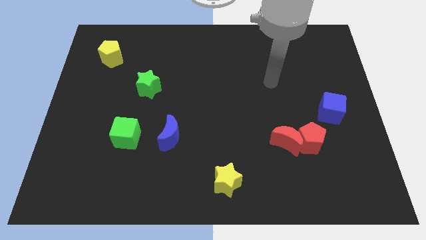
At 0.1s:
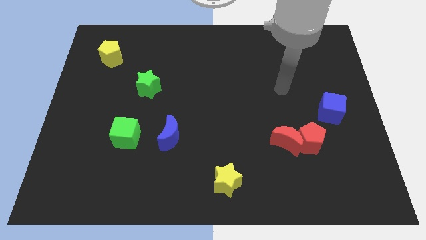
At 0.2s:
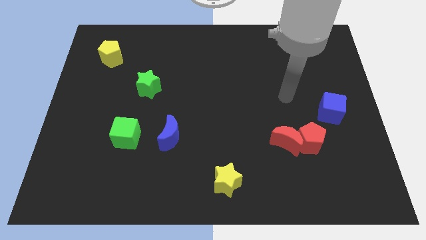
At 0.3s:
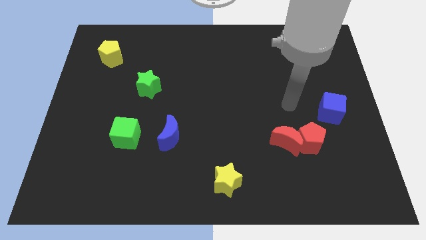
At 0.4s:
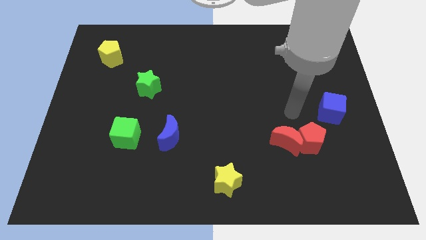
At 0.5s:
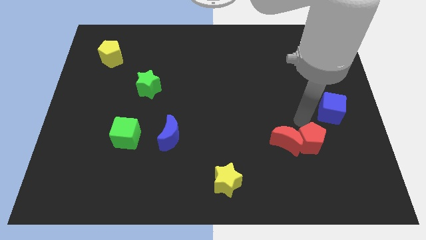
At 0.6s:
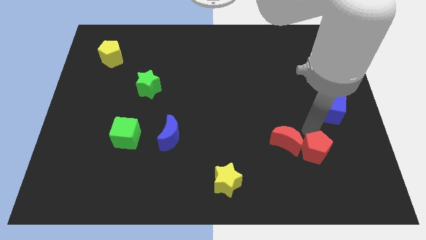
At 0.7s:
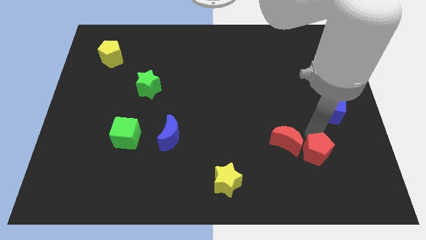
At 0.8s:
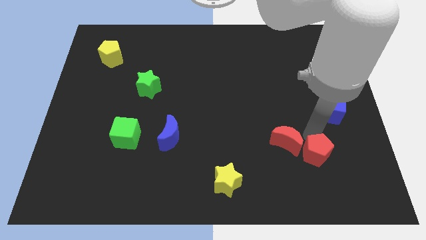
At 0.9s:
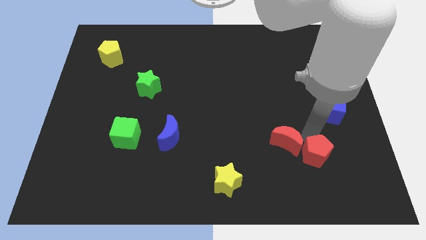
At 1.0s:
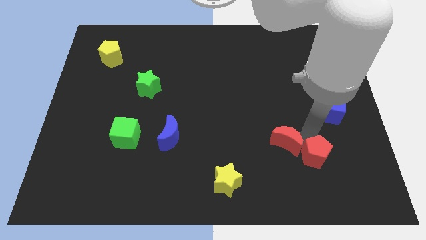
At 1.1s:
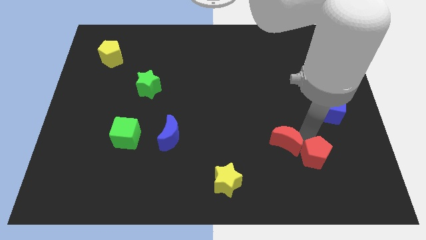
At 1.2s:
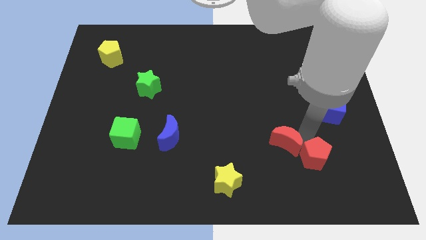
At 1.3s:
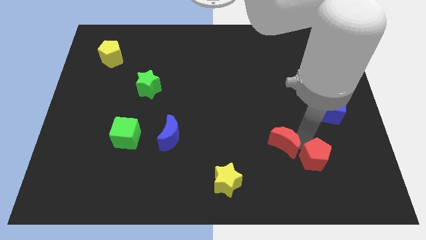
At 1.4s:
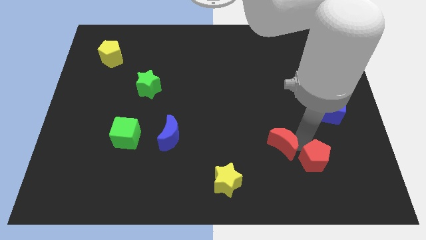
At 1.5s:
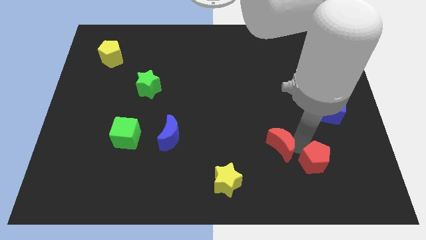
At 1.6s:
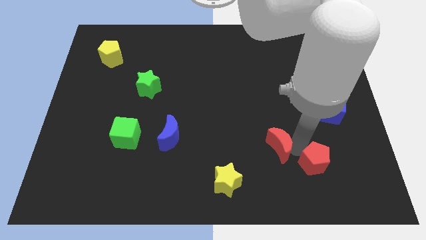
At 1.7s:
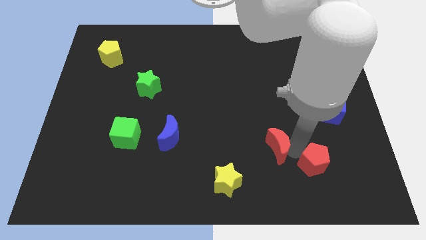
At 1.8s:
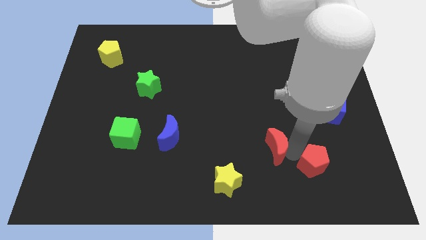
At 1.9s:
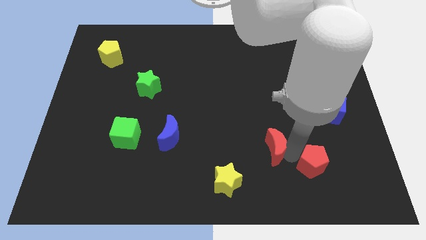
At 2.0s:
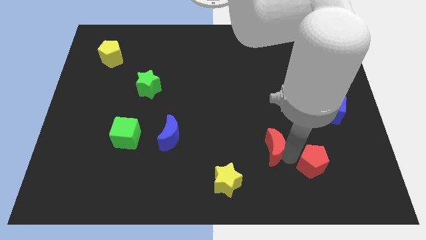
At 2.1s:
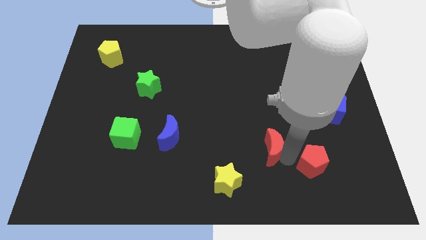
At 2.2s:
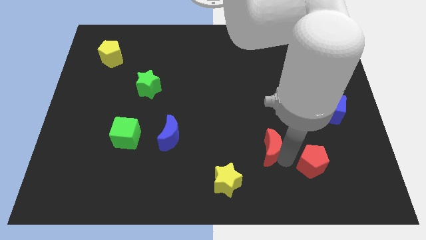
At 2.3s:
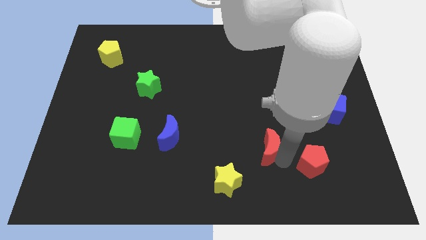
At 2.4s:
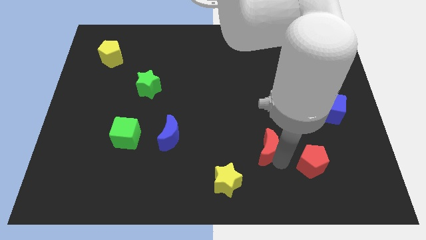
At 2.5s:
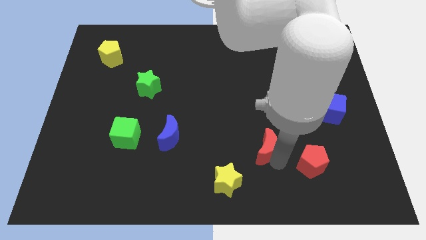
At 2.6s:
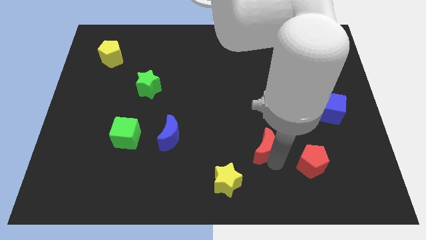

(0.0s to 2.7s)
pull the red moon apart from the red pentagon

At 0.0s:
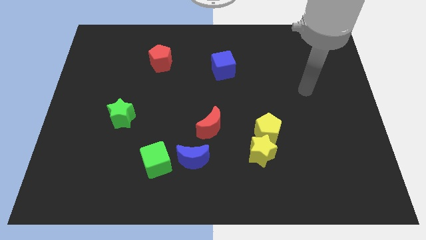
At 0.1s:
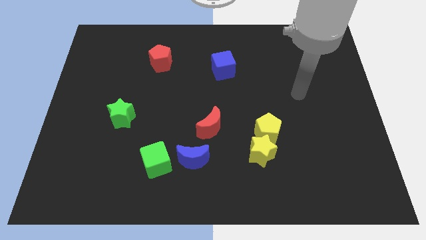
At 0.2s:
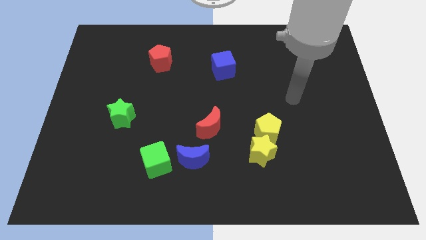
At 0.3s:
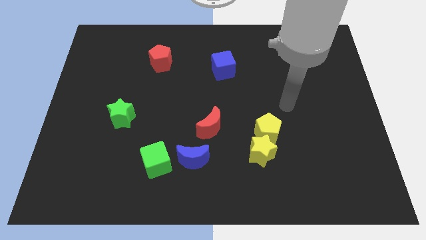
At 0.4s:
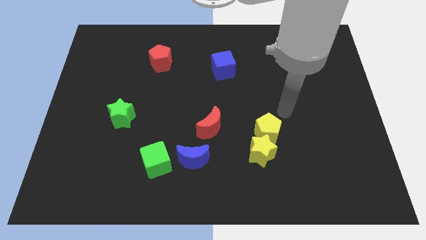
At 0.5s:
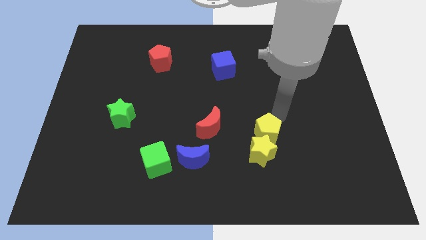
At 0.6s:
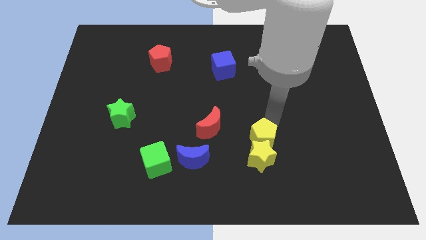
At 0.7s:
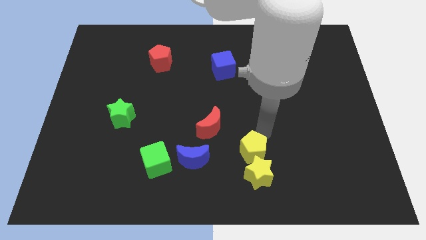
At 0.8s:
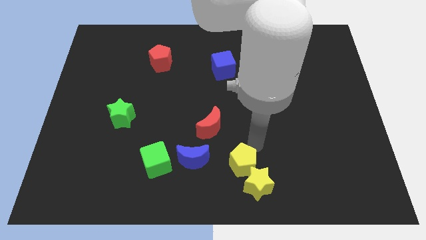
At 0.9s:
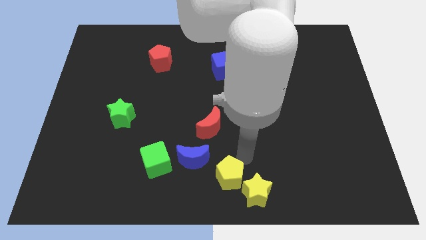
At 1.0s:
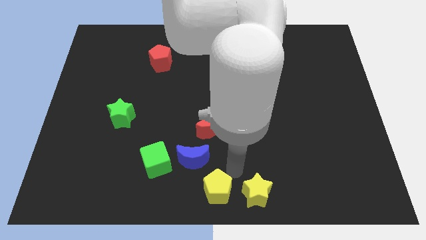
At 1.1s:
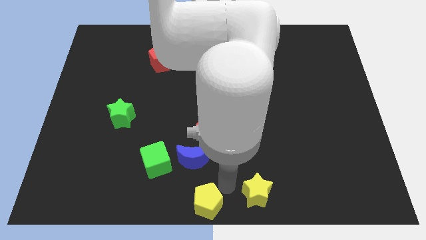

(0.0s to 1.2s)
move the yellow star away from the yellow pentagon

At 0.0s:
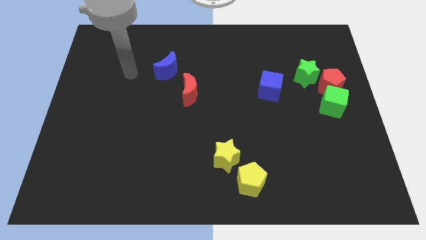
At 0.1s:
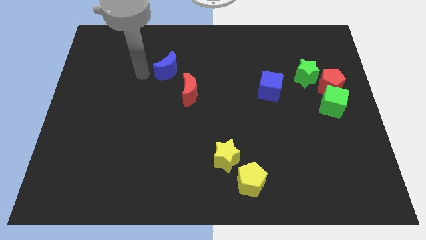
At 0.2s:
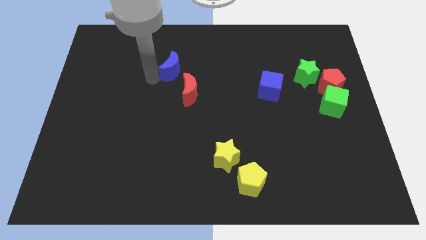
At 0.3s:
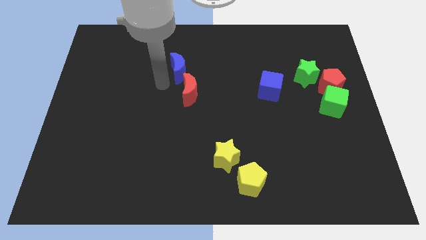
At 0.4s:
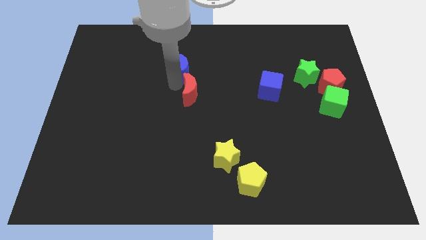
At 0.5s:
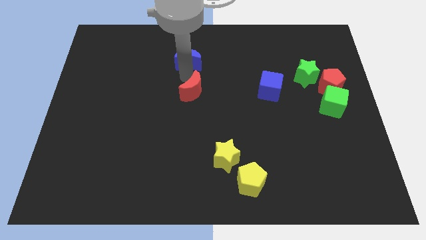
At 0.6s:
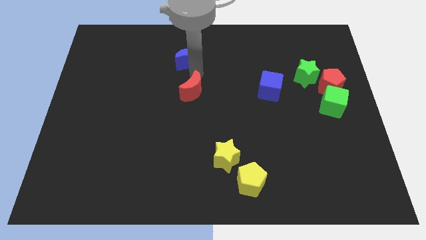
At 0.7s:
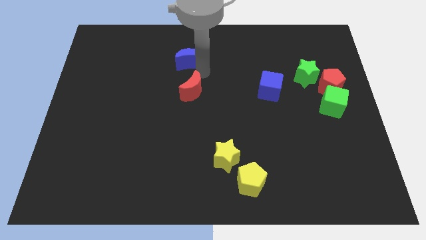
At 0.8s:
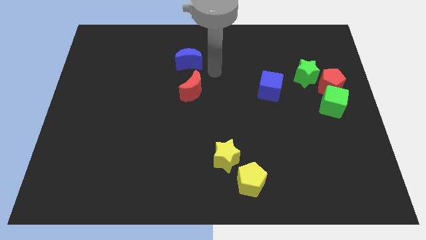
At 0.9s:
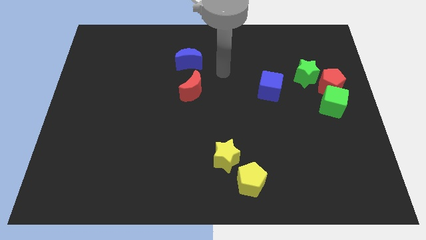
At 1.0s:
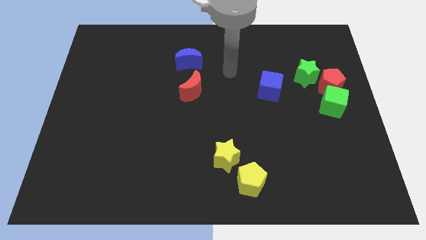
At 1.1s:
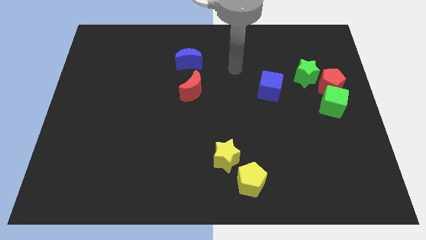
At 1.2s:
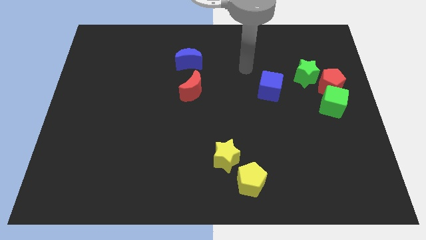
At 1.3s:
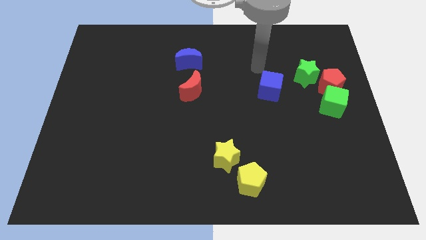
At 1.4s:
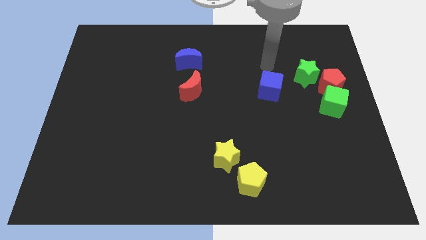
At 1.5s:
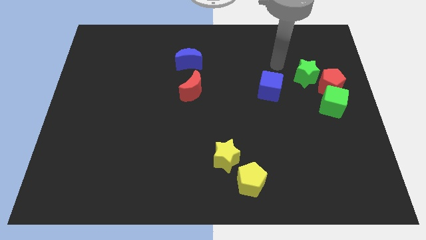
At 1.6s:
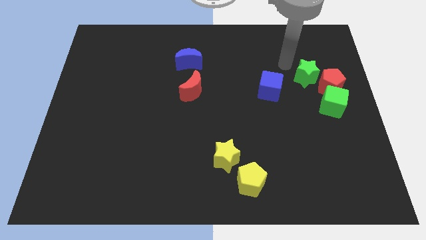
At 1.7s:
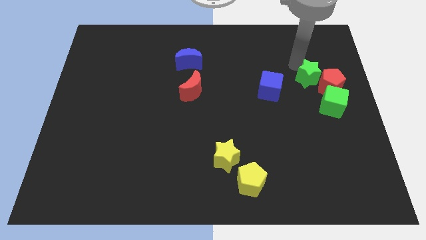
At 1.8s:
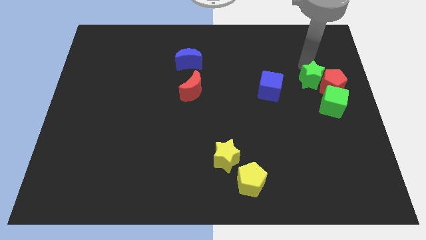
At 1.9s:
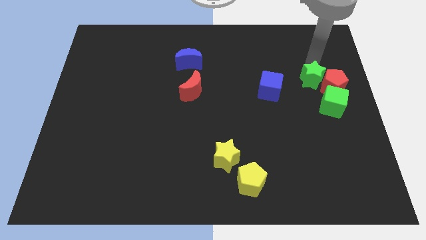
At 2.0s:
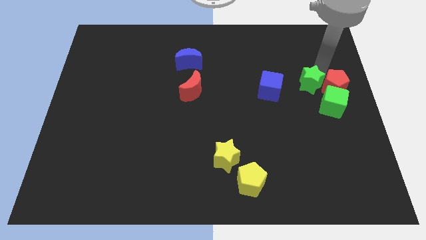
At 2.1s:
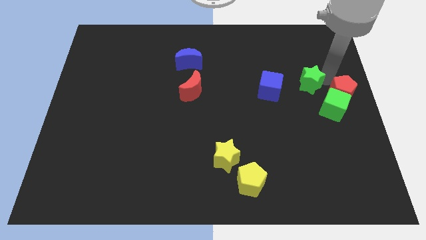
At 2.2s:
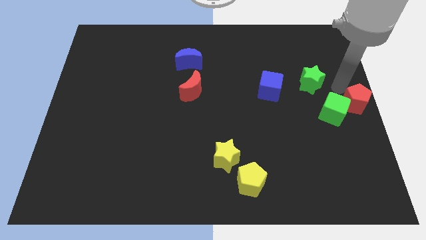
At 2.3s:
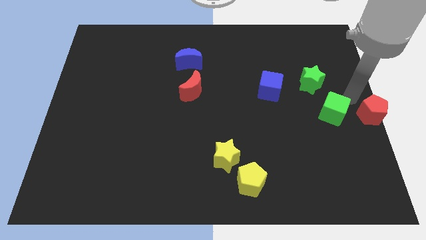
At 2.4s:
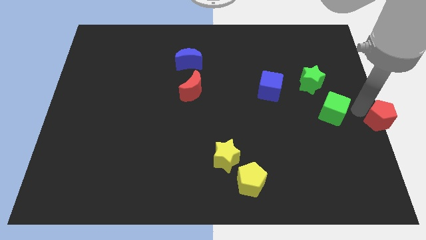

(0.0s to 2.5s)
pull the green cube apart from the red pentagon

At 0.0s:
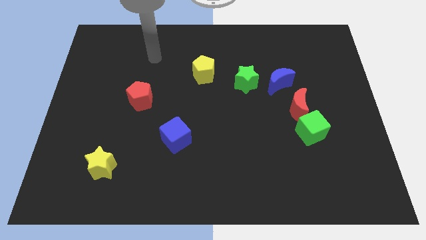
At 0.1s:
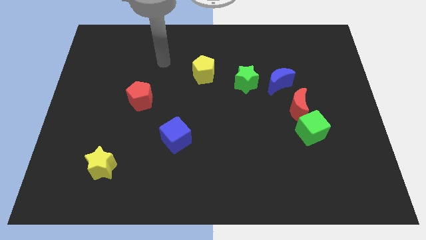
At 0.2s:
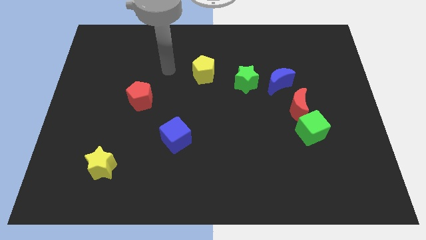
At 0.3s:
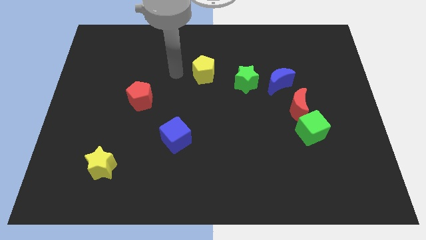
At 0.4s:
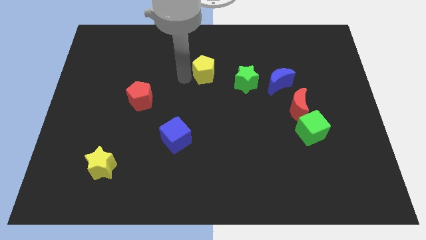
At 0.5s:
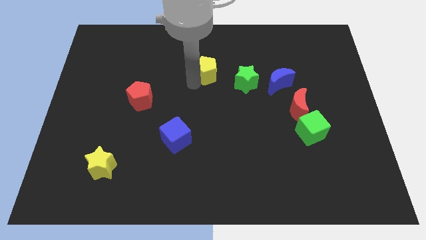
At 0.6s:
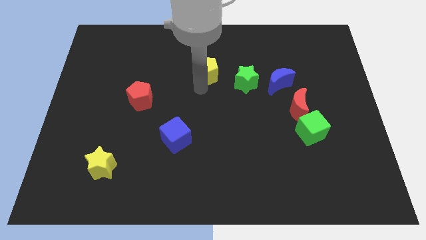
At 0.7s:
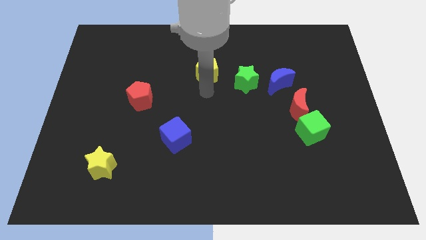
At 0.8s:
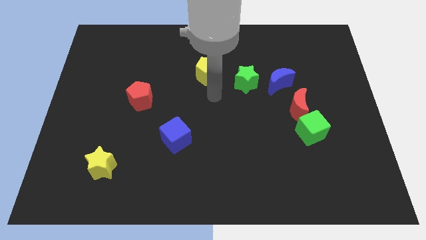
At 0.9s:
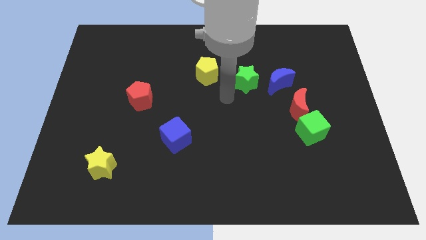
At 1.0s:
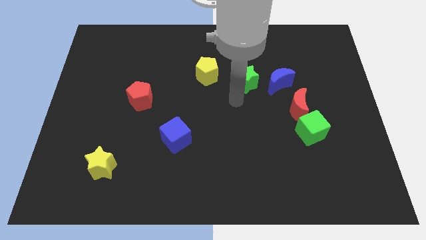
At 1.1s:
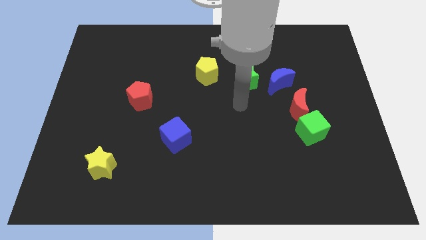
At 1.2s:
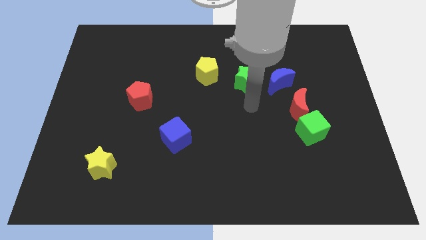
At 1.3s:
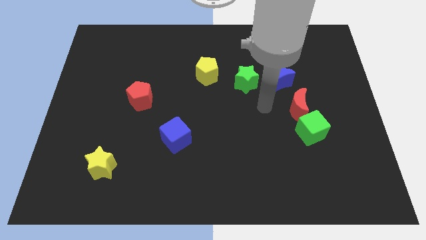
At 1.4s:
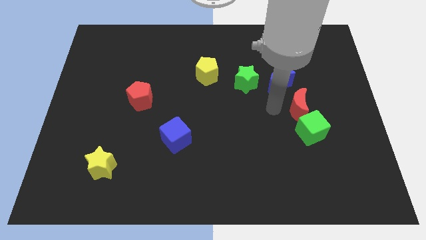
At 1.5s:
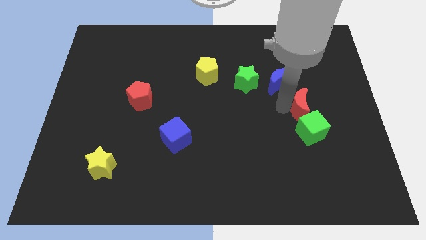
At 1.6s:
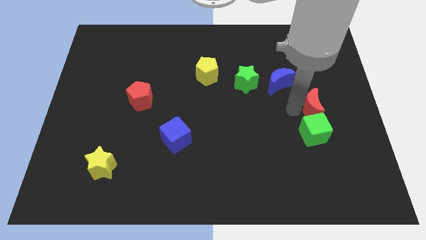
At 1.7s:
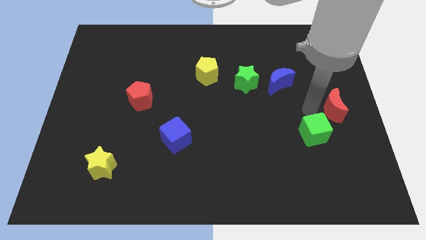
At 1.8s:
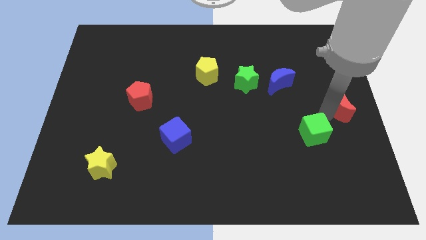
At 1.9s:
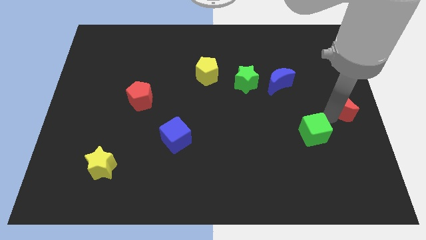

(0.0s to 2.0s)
move the green cube away from the red moon

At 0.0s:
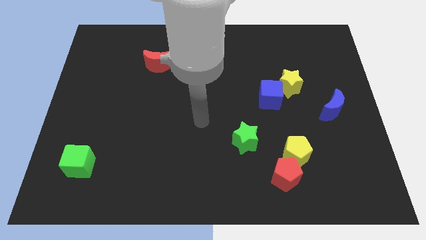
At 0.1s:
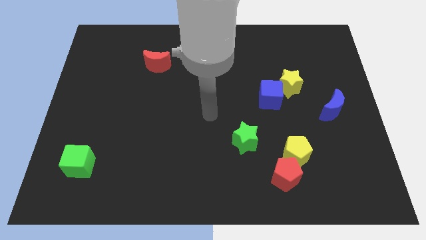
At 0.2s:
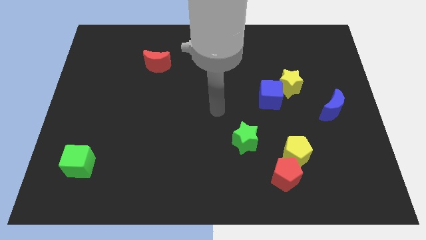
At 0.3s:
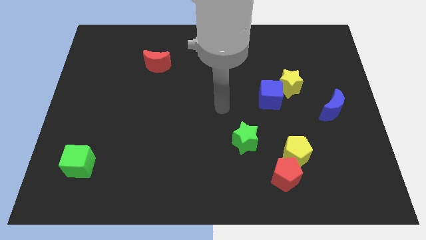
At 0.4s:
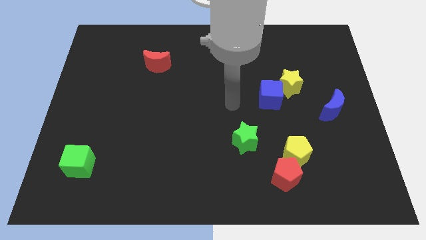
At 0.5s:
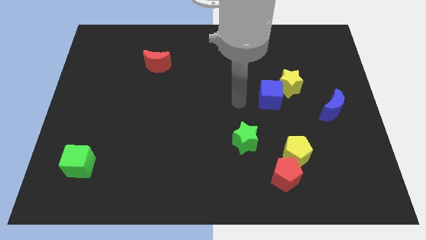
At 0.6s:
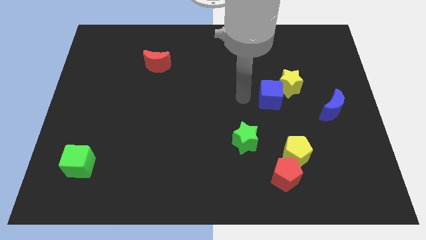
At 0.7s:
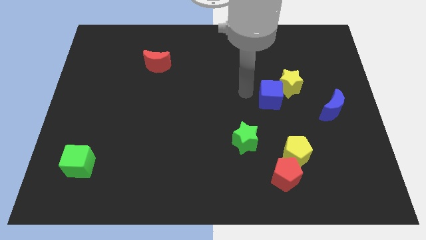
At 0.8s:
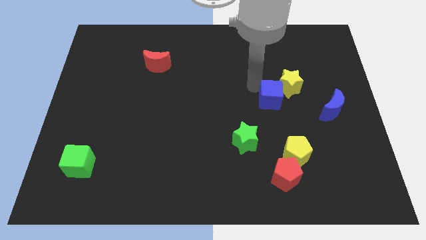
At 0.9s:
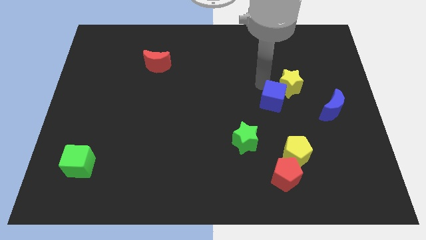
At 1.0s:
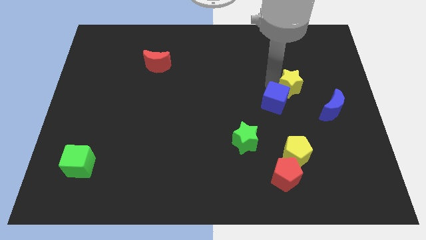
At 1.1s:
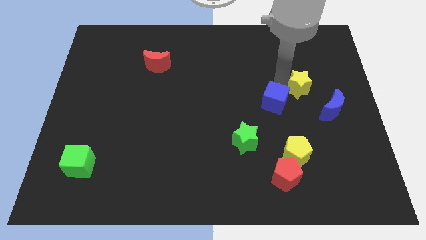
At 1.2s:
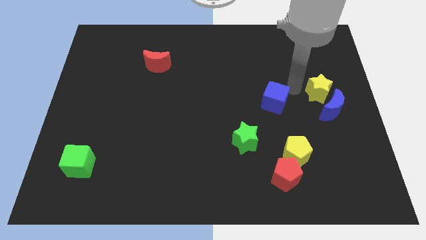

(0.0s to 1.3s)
move the blue cube away from the yellow star
